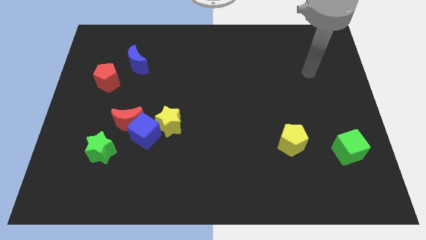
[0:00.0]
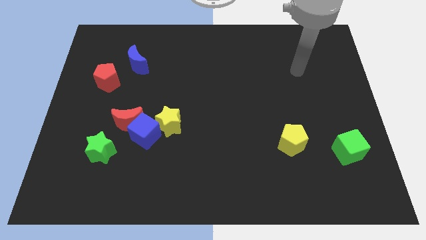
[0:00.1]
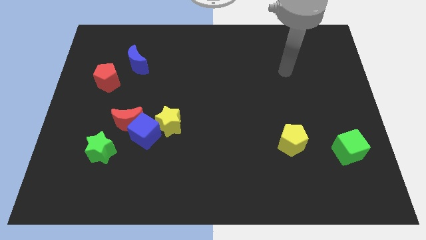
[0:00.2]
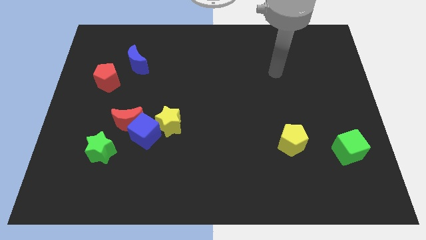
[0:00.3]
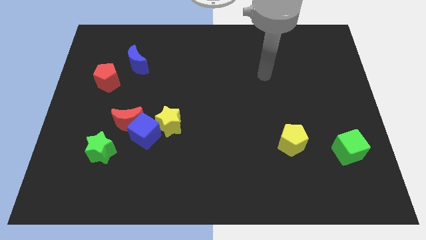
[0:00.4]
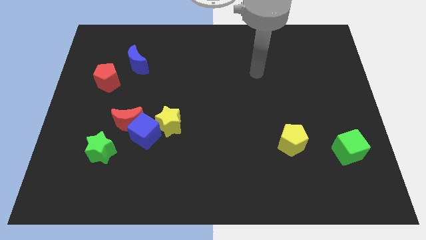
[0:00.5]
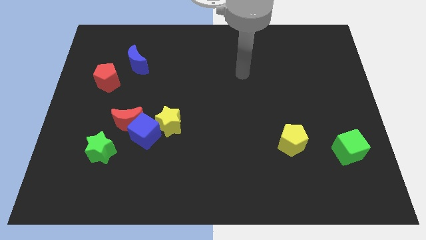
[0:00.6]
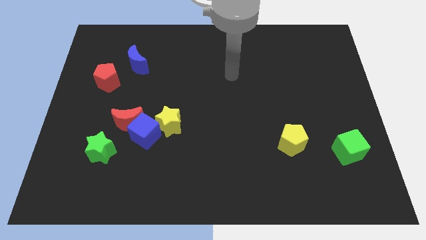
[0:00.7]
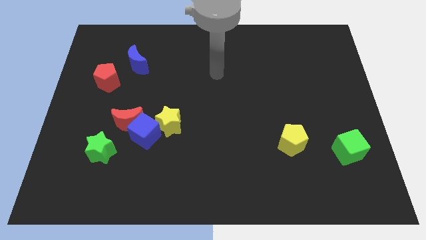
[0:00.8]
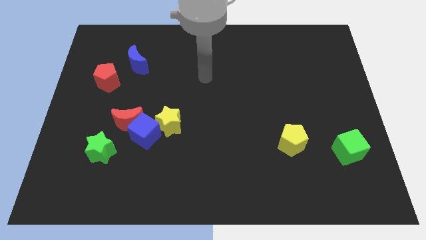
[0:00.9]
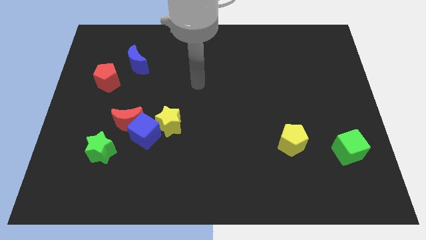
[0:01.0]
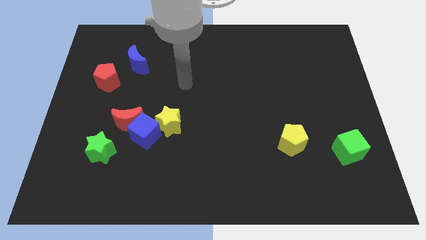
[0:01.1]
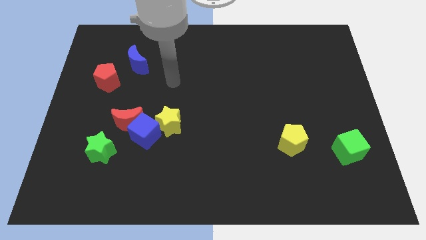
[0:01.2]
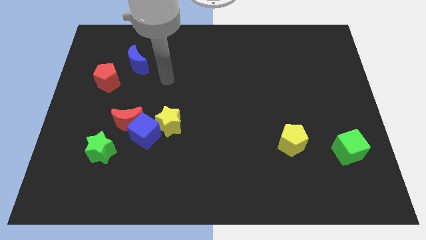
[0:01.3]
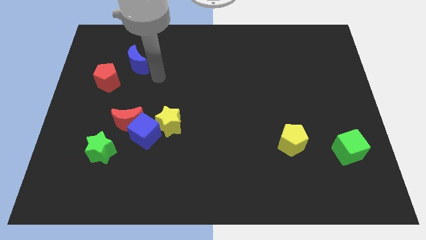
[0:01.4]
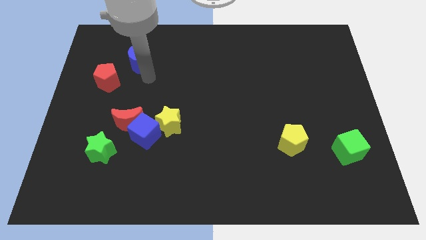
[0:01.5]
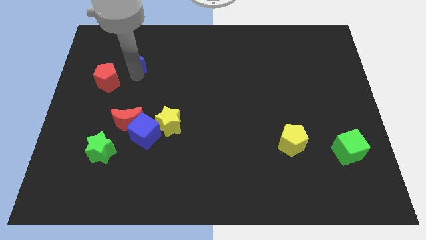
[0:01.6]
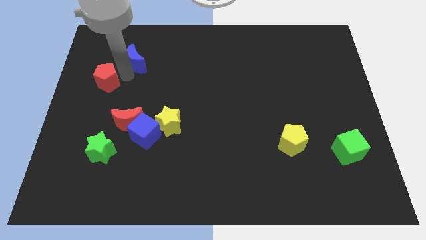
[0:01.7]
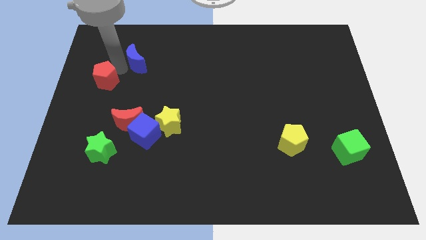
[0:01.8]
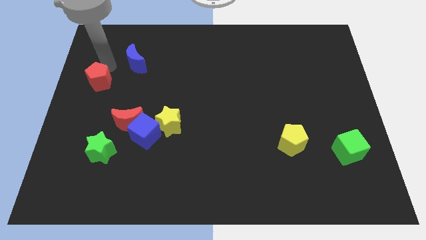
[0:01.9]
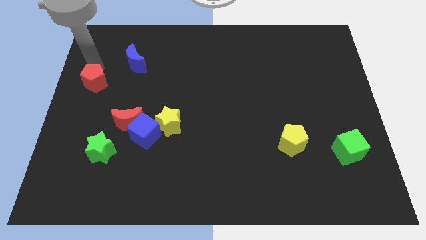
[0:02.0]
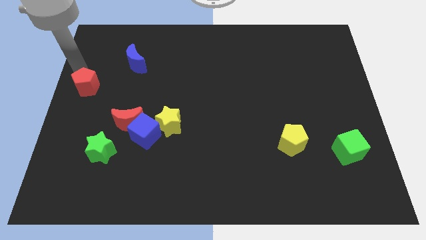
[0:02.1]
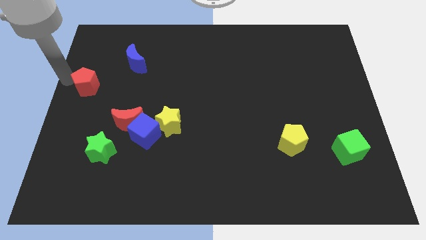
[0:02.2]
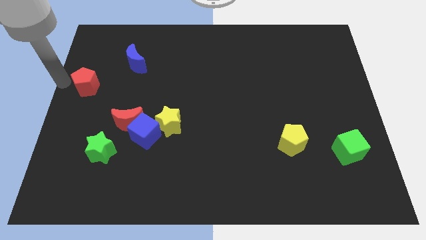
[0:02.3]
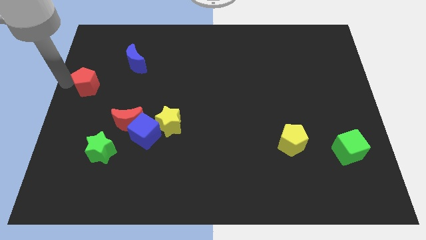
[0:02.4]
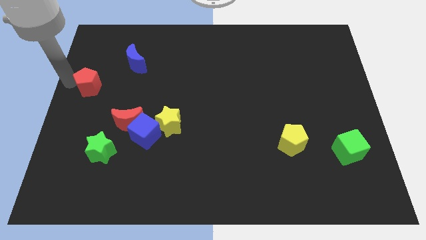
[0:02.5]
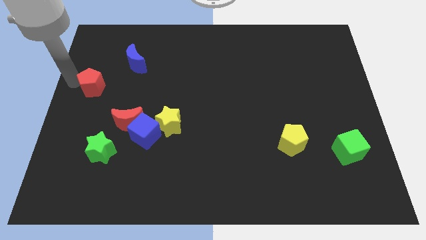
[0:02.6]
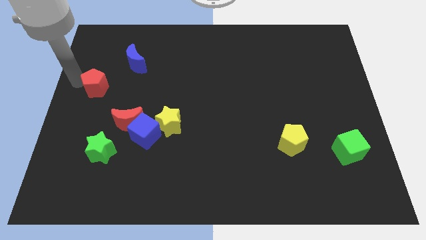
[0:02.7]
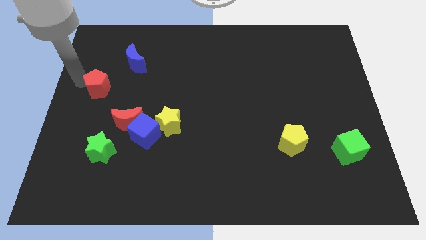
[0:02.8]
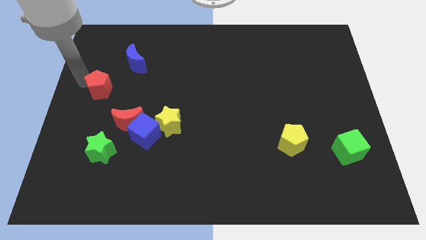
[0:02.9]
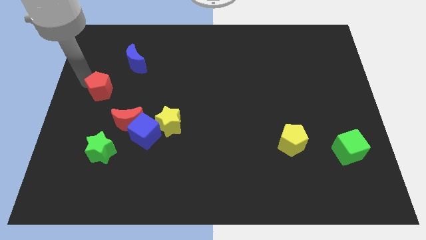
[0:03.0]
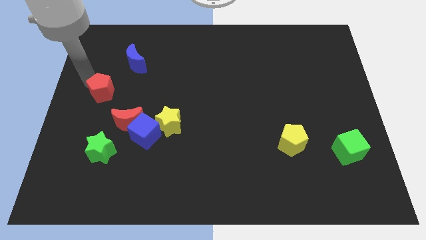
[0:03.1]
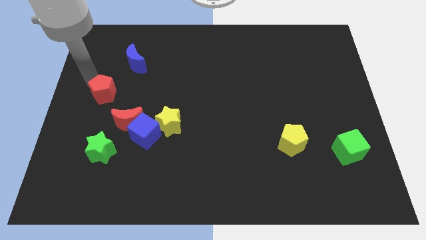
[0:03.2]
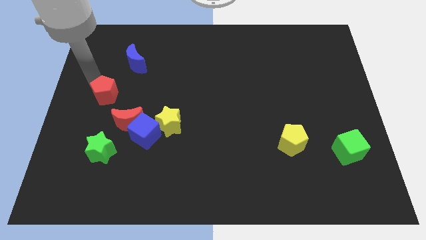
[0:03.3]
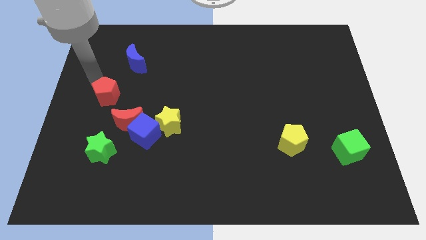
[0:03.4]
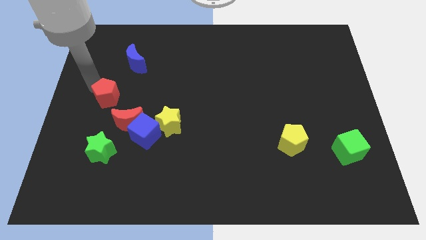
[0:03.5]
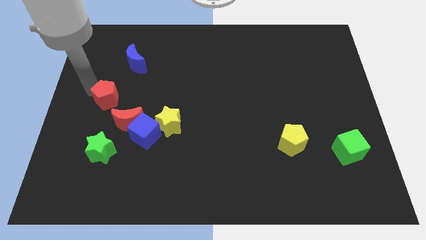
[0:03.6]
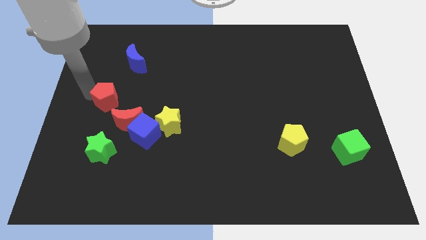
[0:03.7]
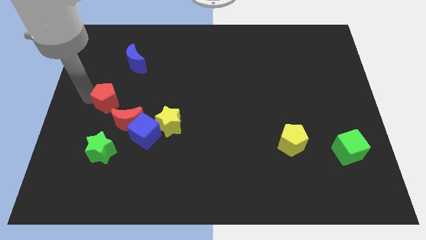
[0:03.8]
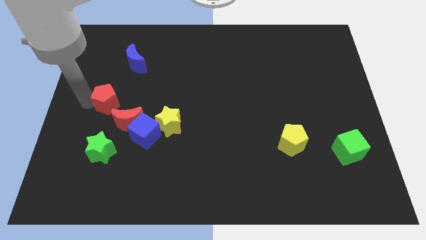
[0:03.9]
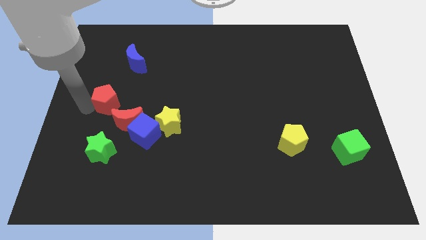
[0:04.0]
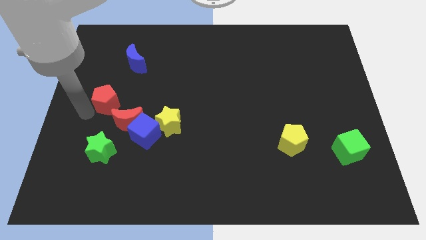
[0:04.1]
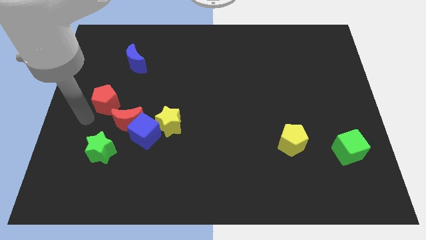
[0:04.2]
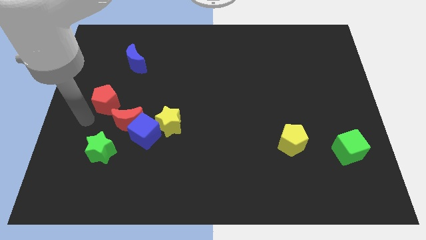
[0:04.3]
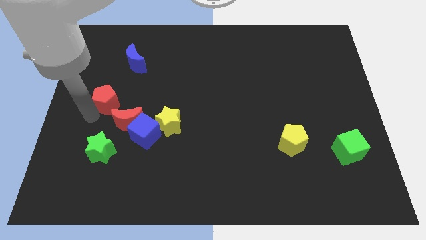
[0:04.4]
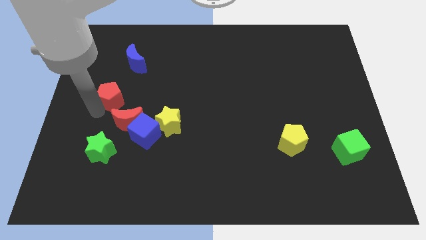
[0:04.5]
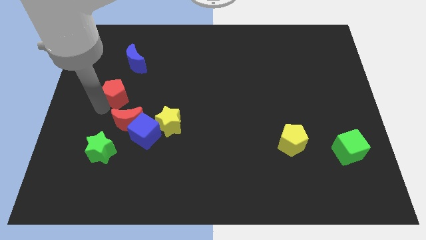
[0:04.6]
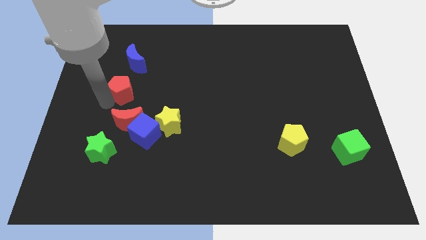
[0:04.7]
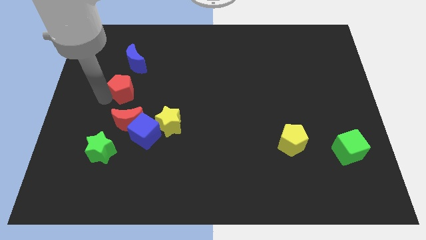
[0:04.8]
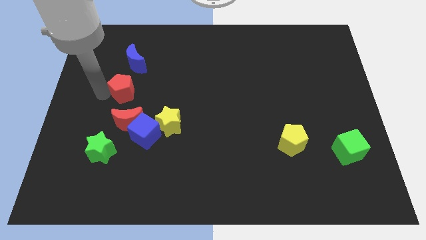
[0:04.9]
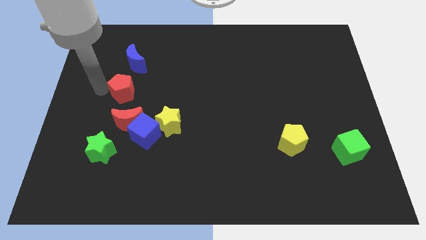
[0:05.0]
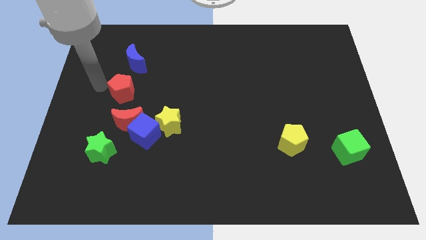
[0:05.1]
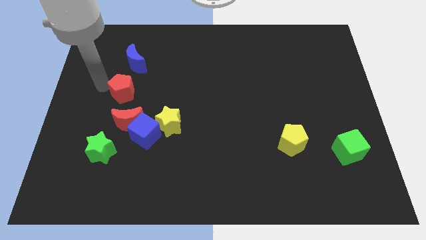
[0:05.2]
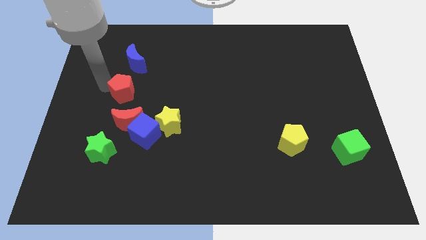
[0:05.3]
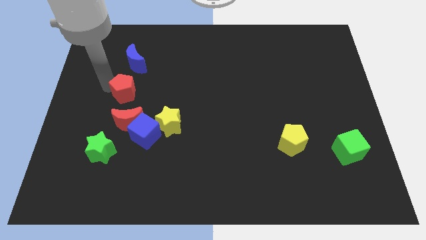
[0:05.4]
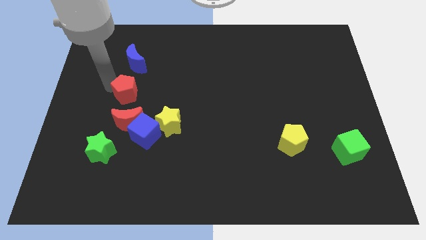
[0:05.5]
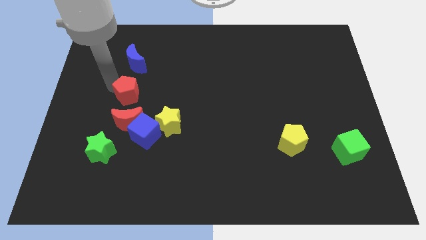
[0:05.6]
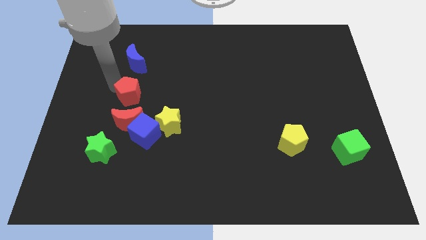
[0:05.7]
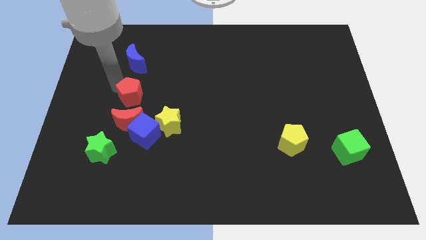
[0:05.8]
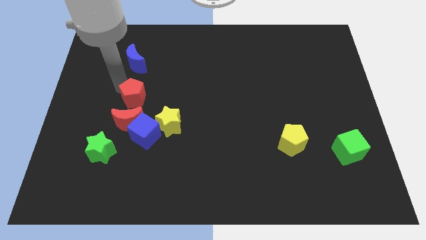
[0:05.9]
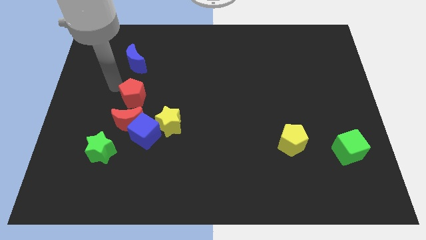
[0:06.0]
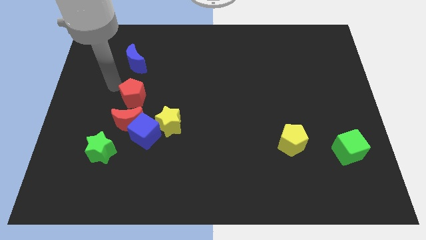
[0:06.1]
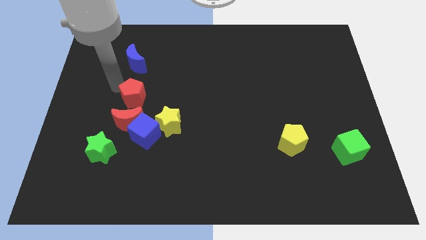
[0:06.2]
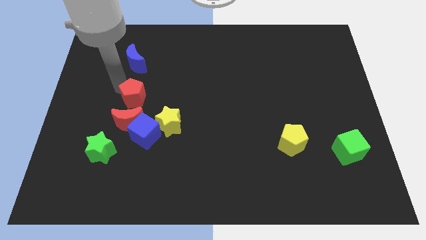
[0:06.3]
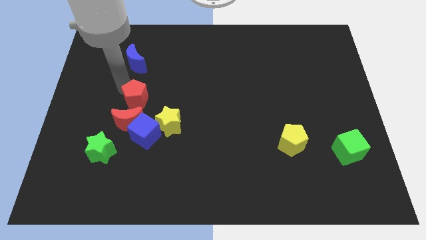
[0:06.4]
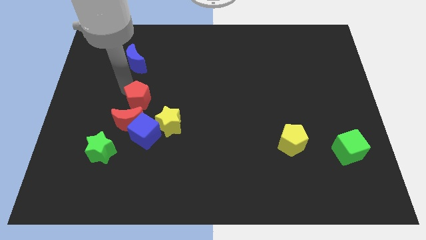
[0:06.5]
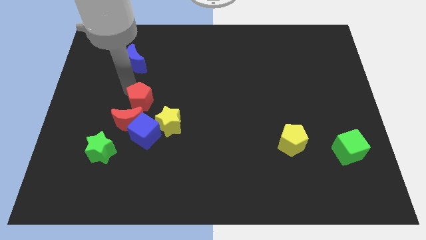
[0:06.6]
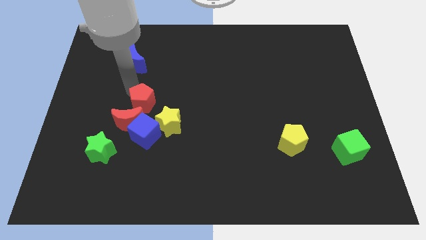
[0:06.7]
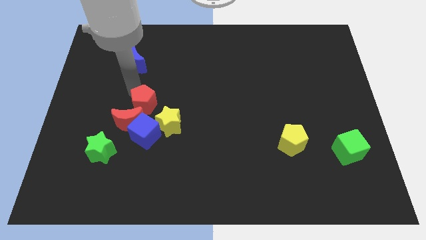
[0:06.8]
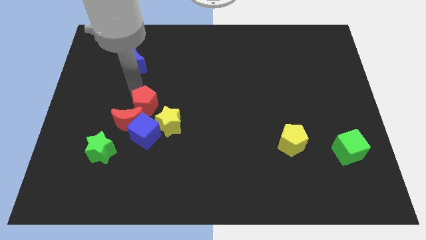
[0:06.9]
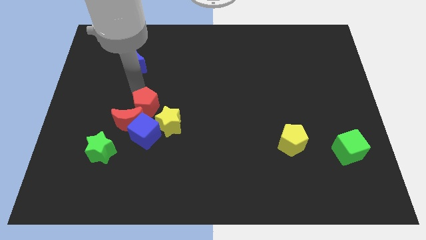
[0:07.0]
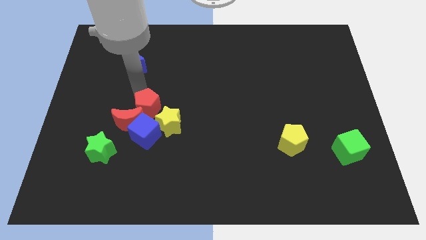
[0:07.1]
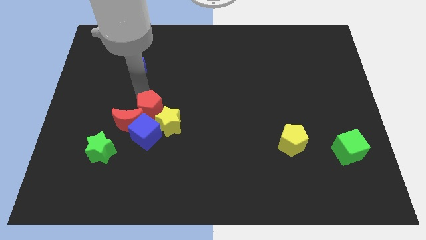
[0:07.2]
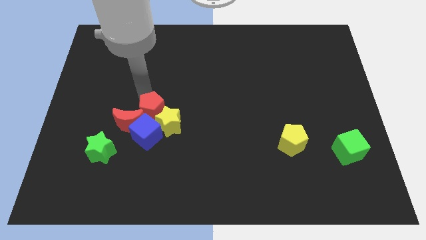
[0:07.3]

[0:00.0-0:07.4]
push the red pentagon towards the yellow star
